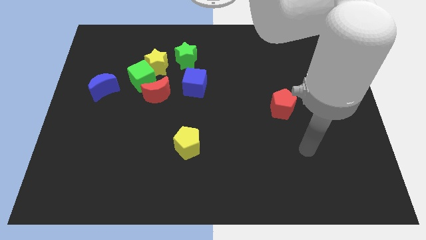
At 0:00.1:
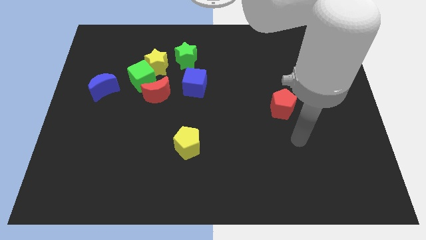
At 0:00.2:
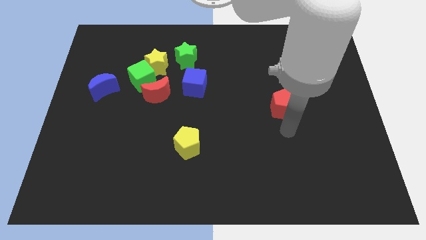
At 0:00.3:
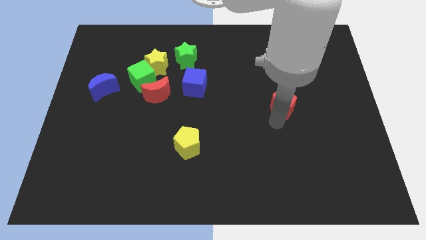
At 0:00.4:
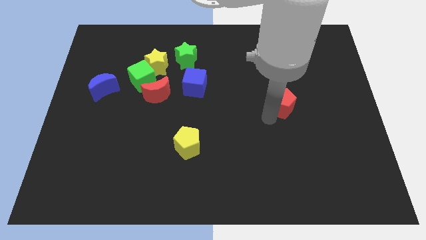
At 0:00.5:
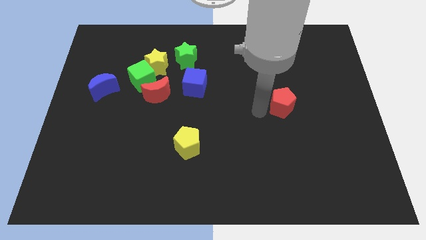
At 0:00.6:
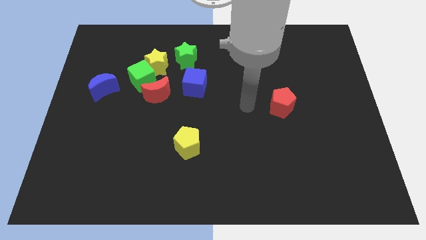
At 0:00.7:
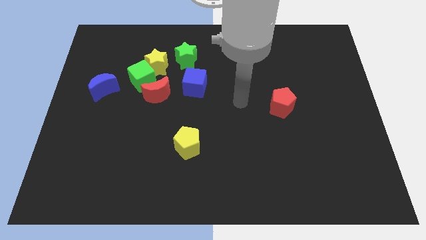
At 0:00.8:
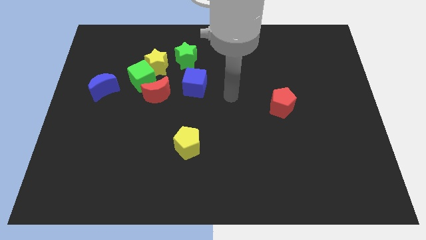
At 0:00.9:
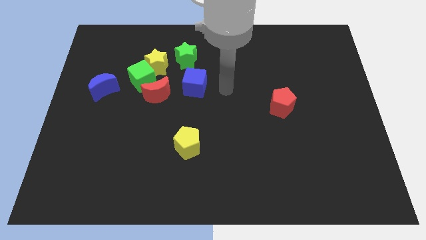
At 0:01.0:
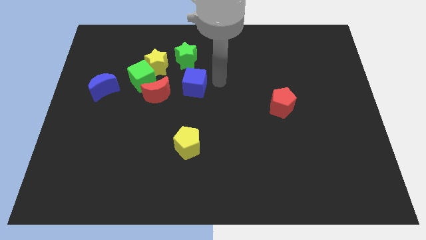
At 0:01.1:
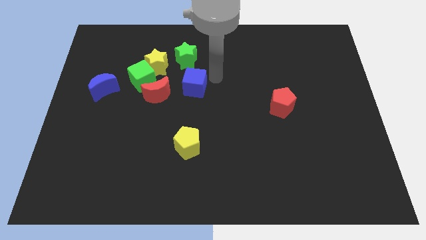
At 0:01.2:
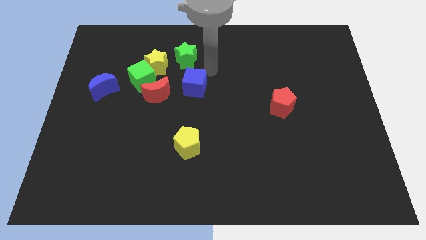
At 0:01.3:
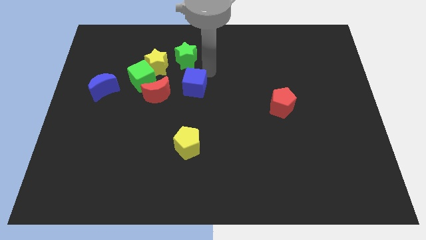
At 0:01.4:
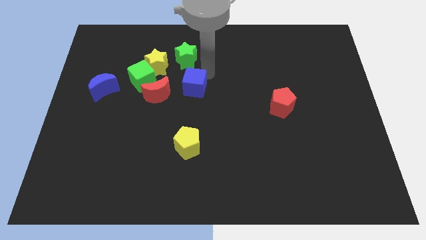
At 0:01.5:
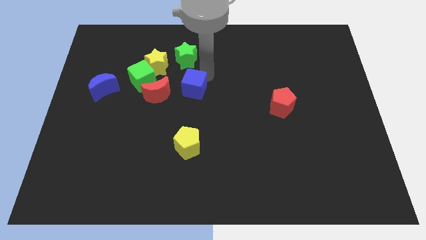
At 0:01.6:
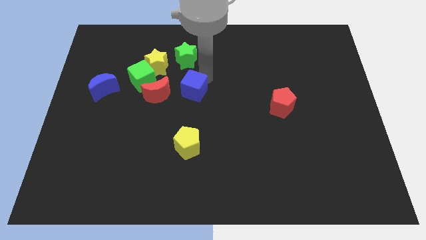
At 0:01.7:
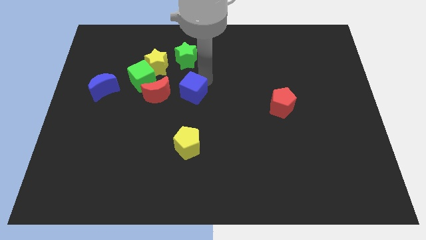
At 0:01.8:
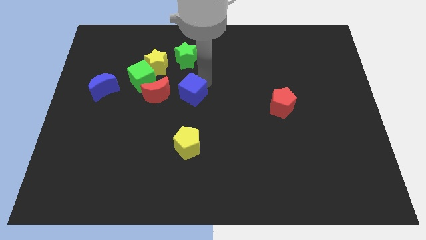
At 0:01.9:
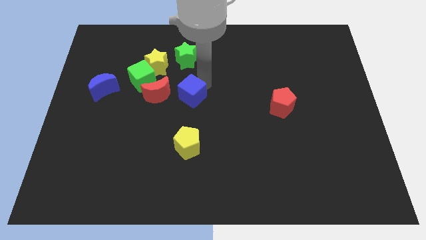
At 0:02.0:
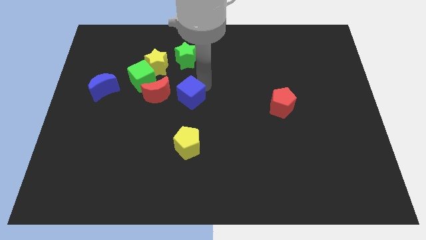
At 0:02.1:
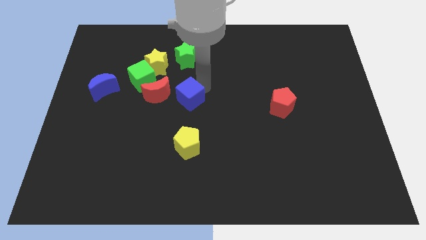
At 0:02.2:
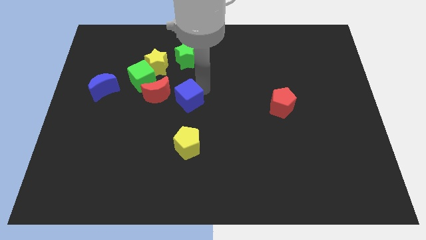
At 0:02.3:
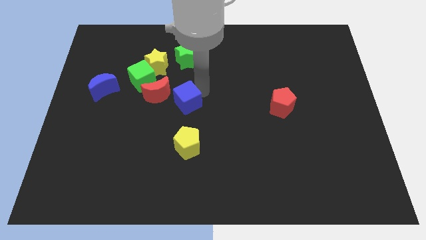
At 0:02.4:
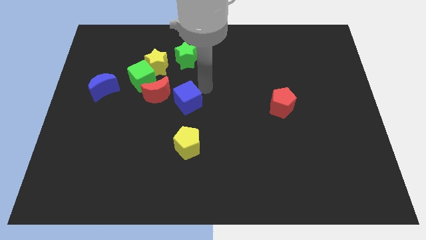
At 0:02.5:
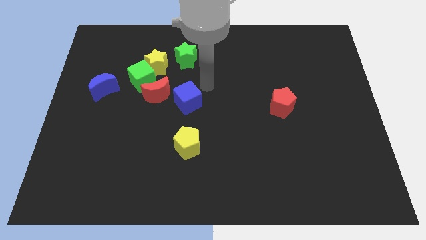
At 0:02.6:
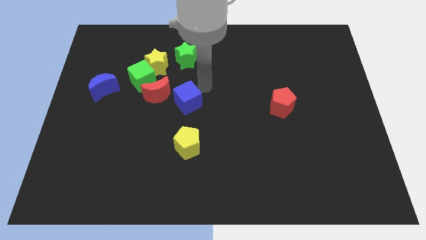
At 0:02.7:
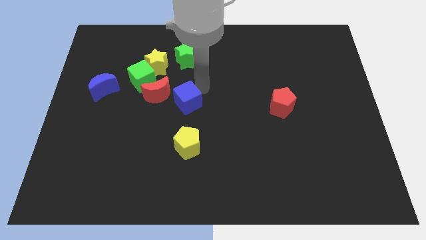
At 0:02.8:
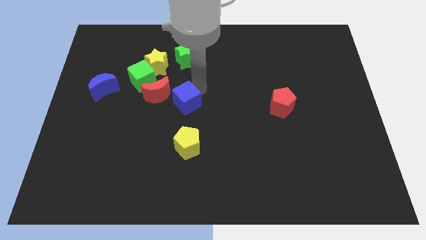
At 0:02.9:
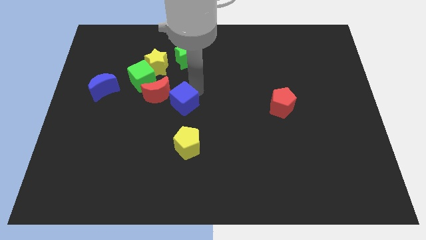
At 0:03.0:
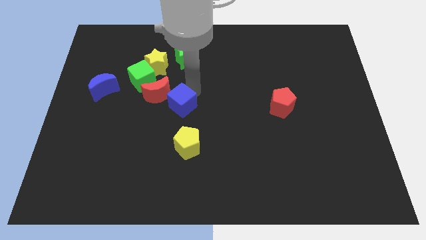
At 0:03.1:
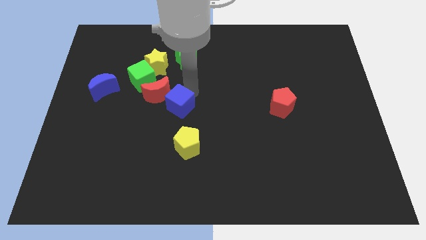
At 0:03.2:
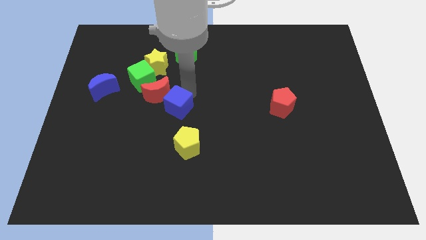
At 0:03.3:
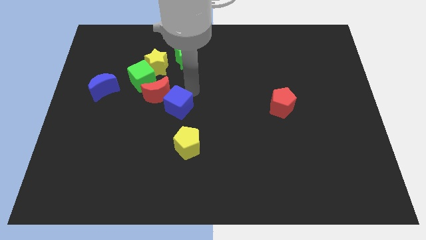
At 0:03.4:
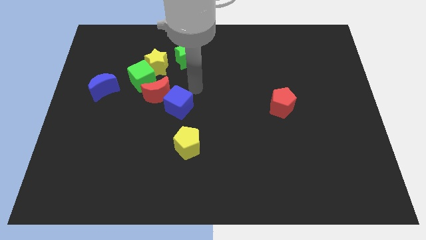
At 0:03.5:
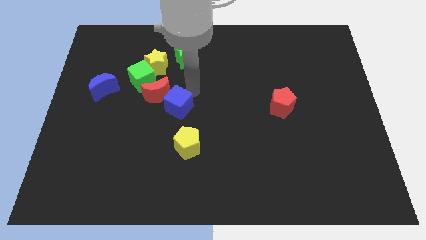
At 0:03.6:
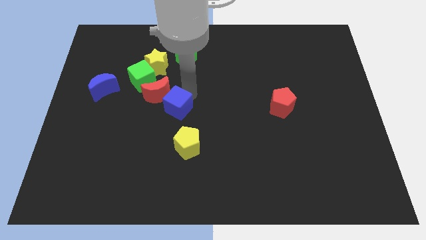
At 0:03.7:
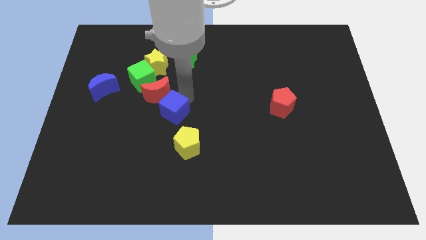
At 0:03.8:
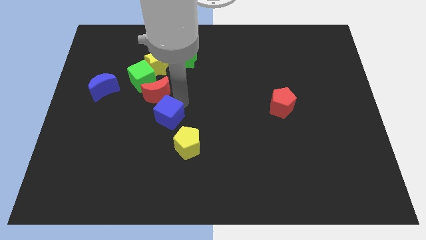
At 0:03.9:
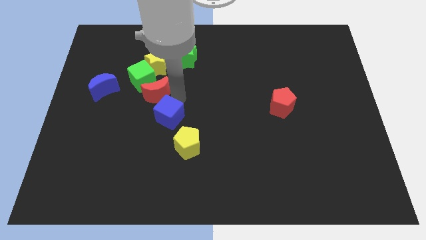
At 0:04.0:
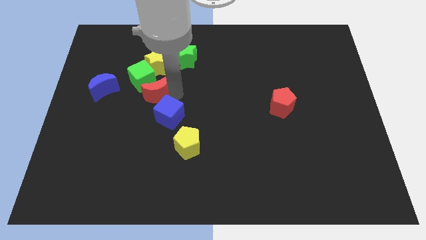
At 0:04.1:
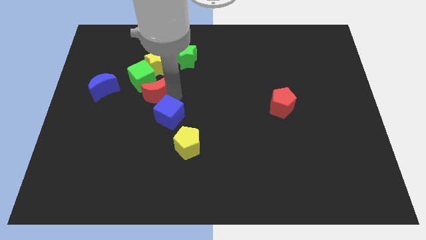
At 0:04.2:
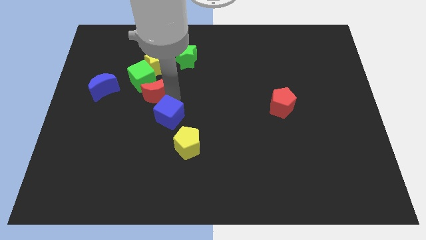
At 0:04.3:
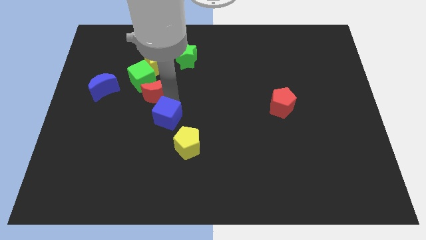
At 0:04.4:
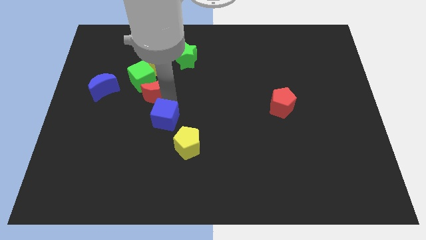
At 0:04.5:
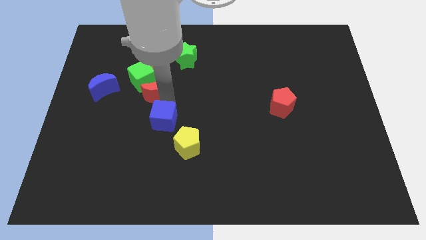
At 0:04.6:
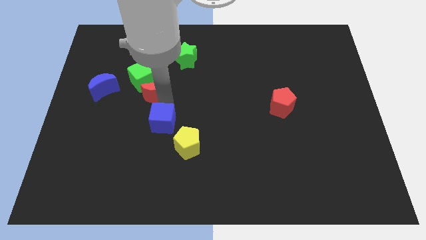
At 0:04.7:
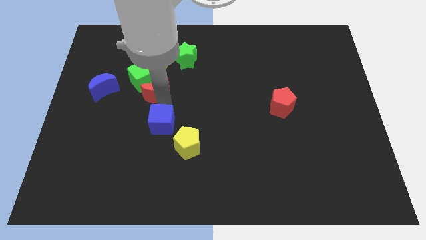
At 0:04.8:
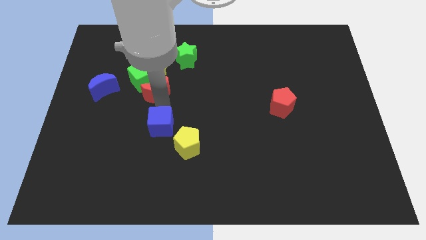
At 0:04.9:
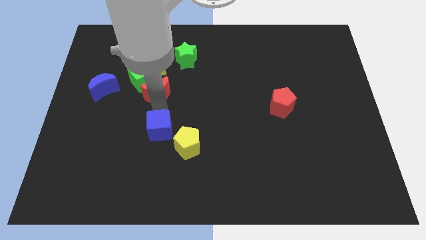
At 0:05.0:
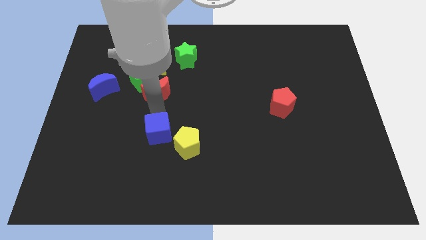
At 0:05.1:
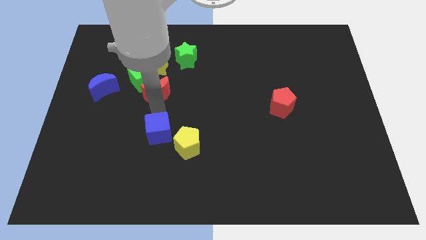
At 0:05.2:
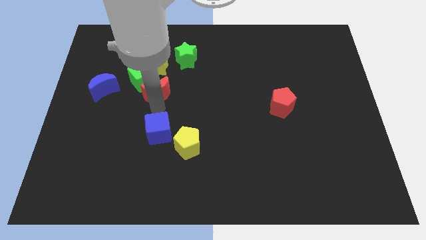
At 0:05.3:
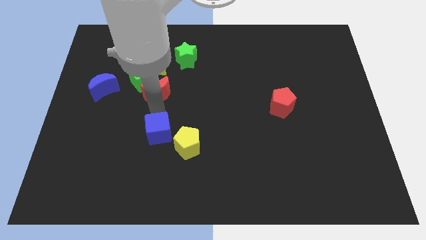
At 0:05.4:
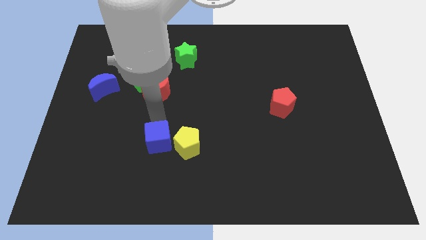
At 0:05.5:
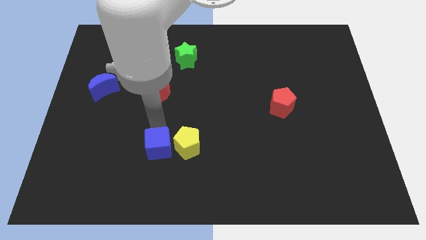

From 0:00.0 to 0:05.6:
move the blue cube diagonally down and to the left of the yellow pentagon

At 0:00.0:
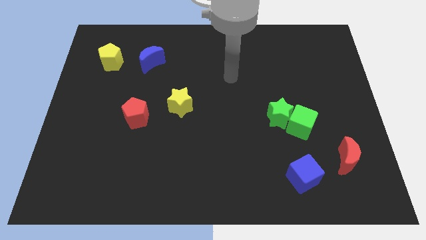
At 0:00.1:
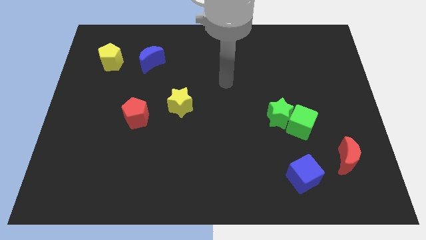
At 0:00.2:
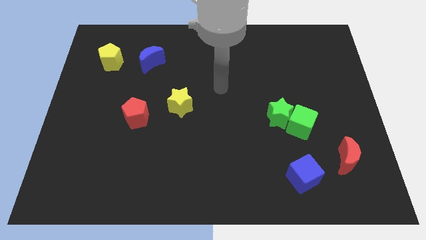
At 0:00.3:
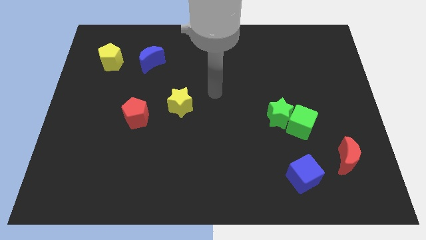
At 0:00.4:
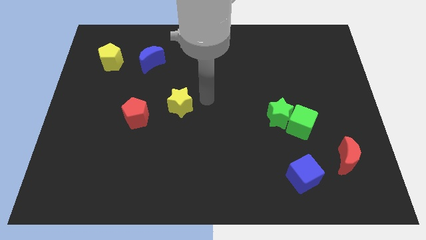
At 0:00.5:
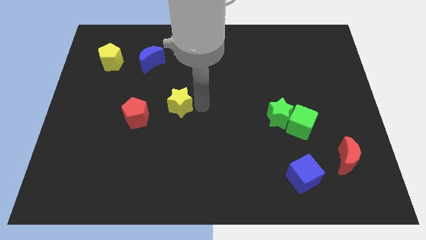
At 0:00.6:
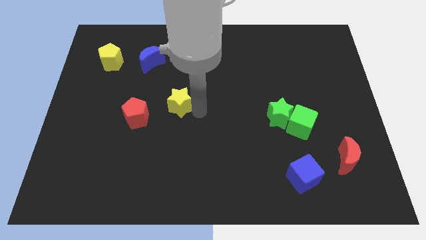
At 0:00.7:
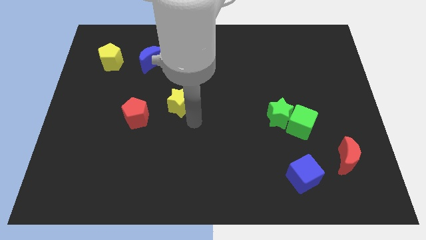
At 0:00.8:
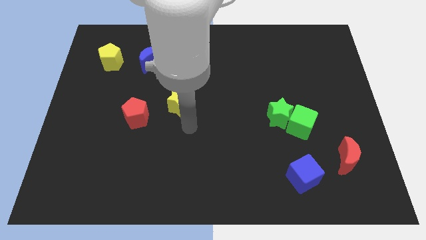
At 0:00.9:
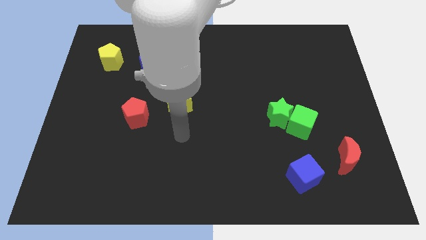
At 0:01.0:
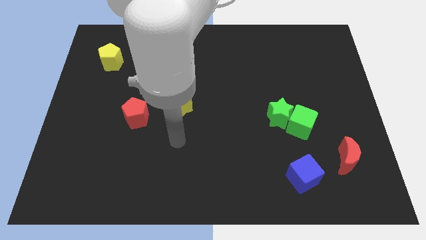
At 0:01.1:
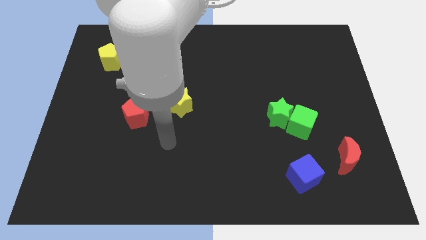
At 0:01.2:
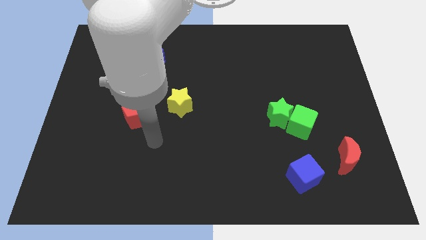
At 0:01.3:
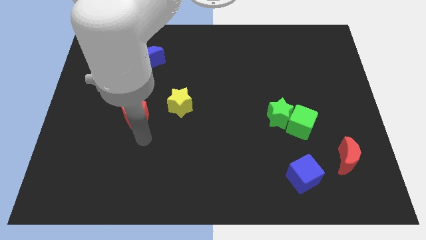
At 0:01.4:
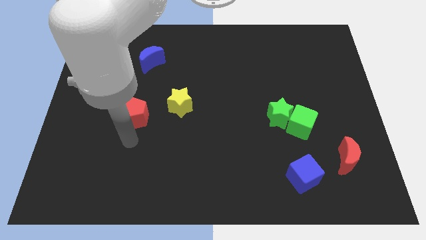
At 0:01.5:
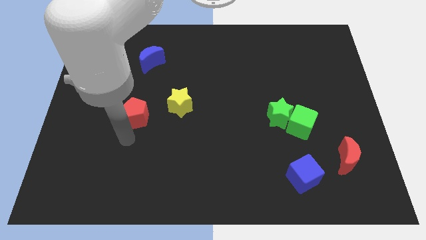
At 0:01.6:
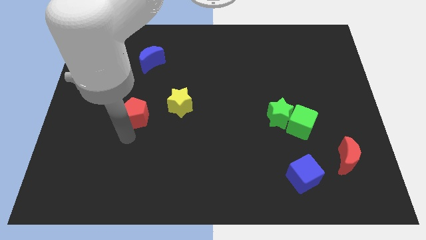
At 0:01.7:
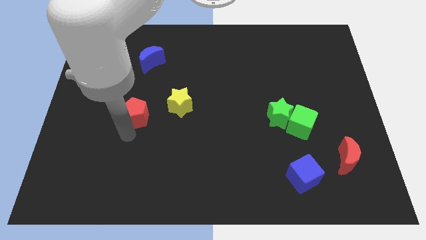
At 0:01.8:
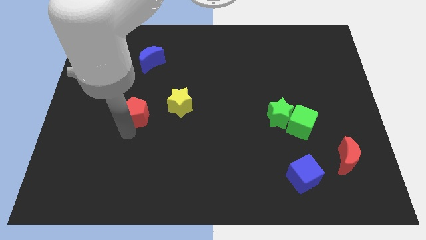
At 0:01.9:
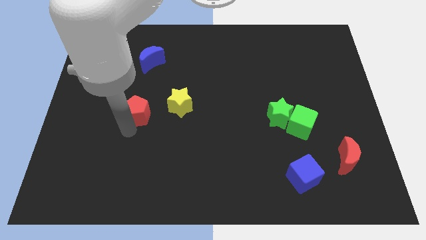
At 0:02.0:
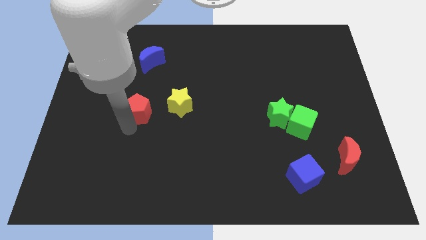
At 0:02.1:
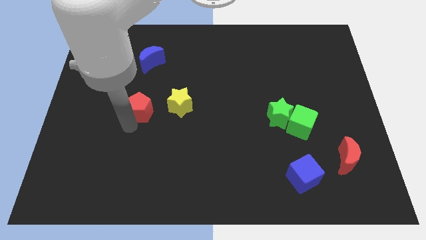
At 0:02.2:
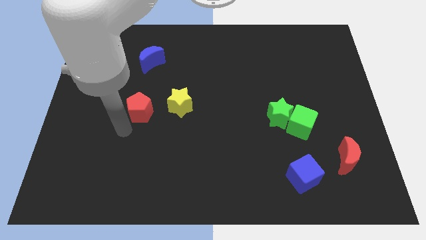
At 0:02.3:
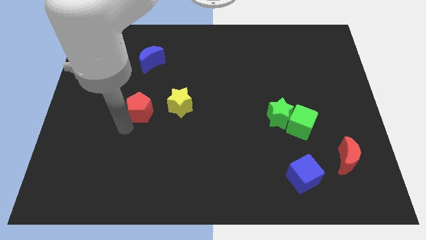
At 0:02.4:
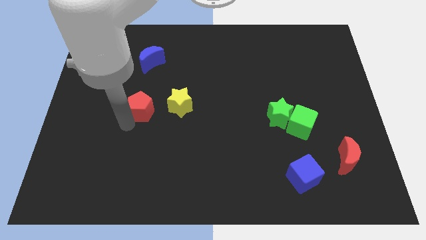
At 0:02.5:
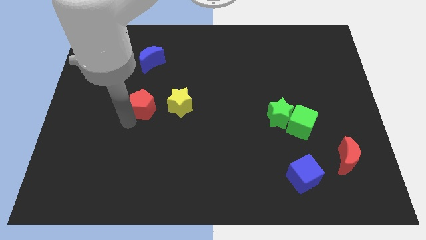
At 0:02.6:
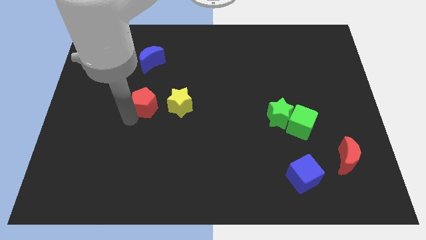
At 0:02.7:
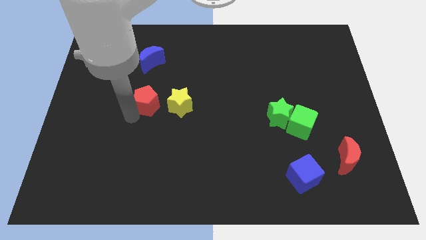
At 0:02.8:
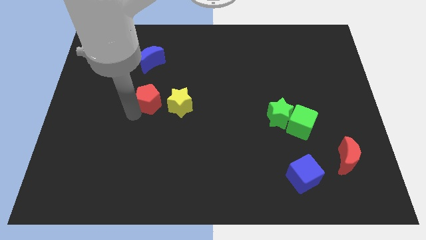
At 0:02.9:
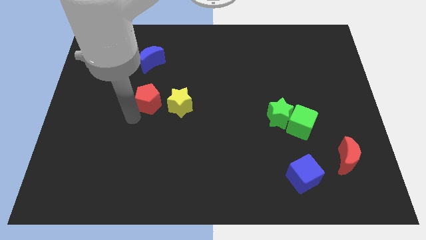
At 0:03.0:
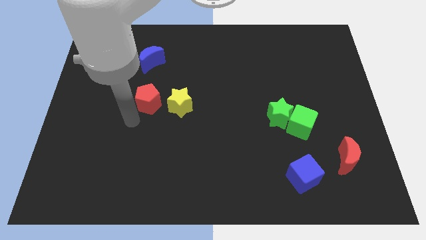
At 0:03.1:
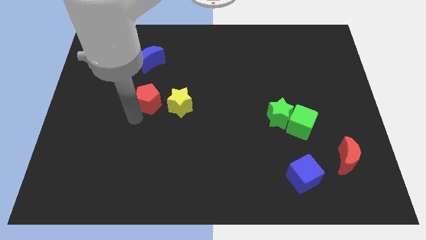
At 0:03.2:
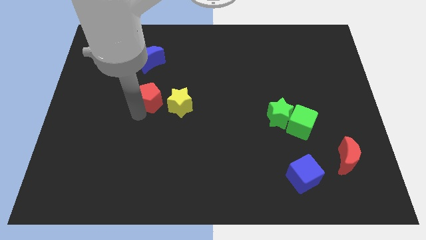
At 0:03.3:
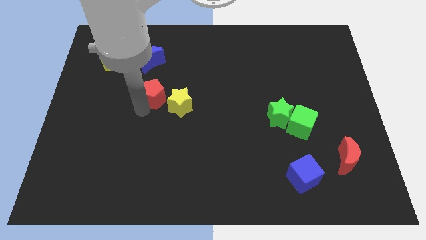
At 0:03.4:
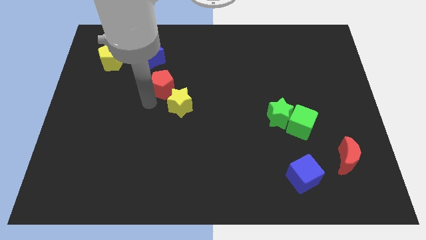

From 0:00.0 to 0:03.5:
put the red pentagon to the top of the yellow star
